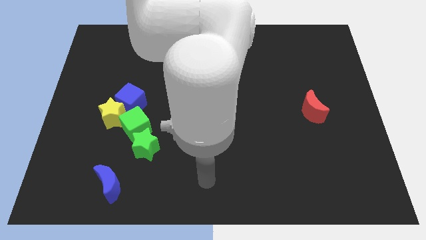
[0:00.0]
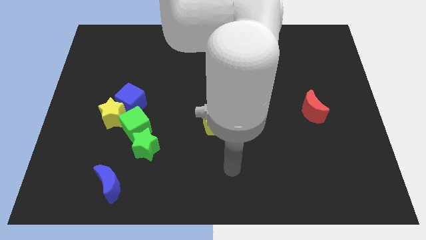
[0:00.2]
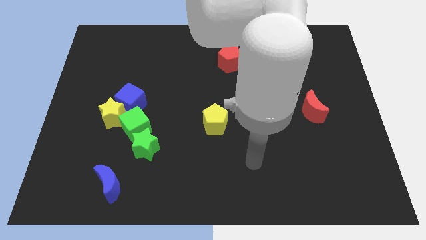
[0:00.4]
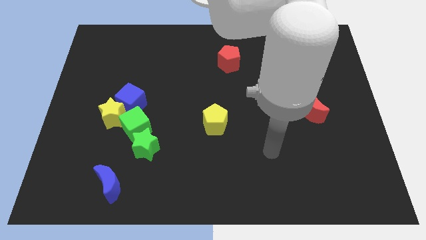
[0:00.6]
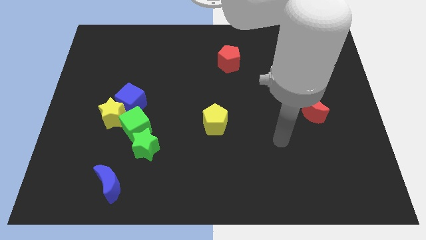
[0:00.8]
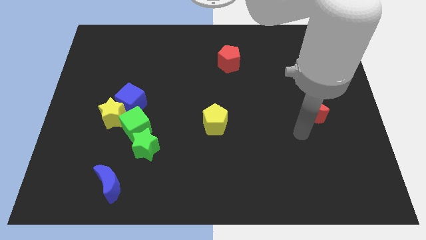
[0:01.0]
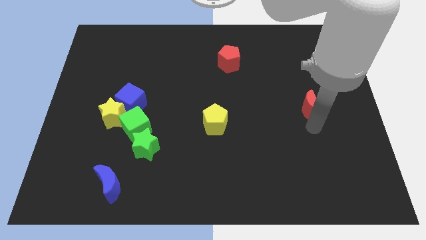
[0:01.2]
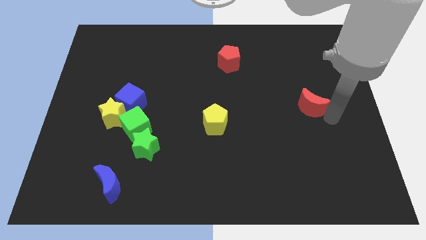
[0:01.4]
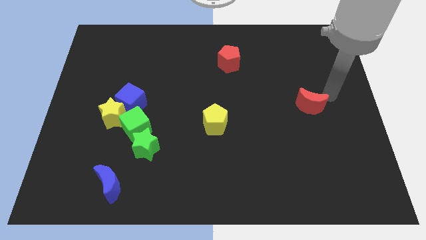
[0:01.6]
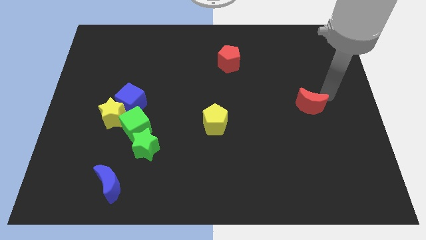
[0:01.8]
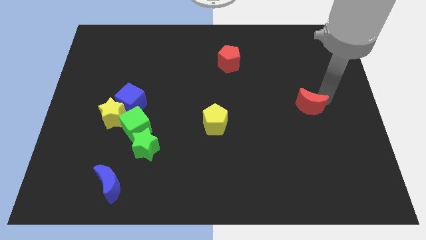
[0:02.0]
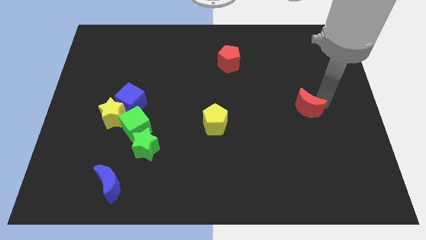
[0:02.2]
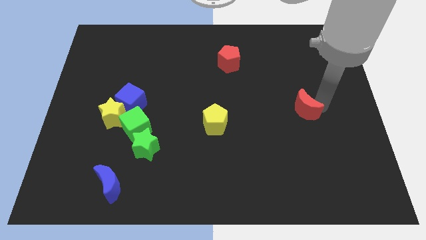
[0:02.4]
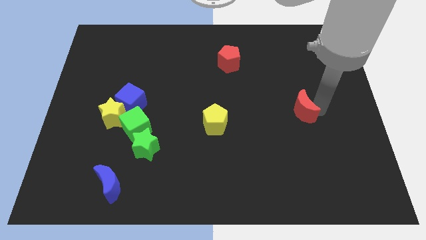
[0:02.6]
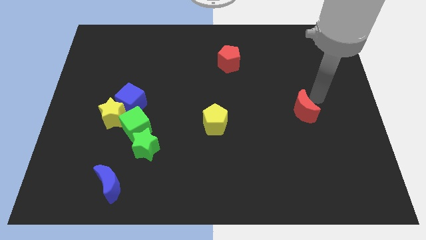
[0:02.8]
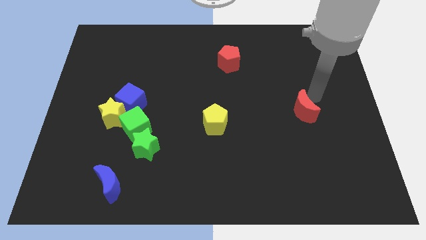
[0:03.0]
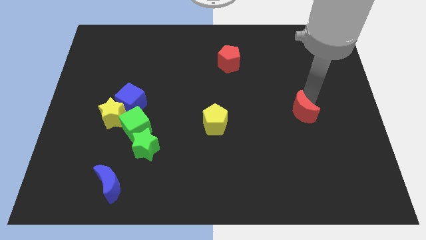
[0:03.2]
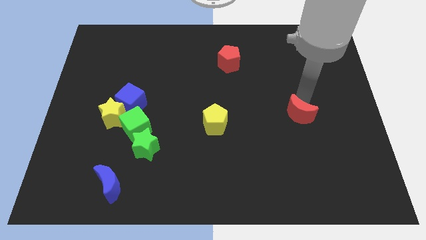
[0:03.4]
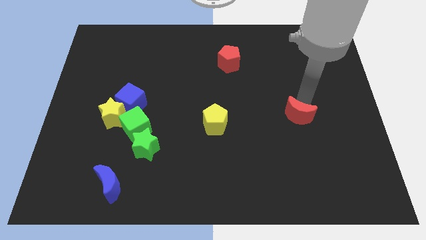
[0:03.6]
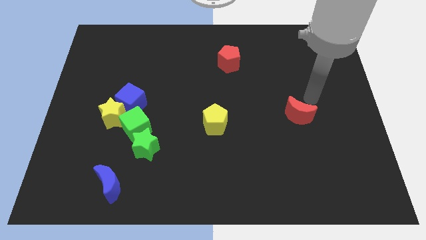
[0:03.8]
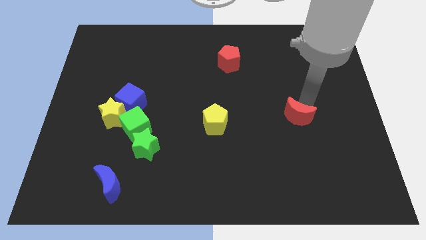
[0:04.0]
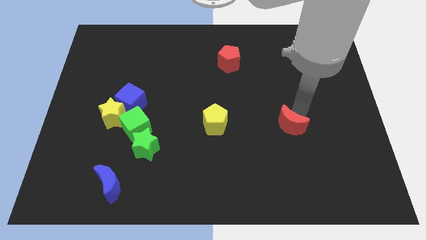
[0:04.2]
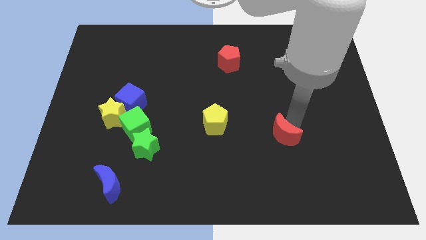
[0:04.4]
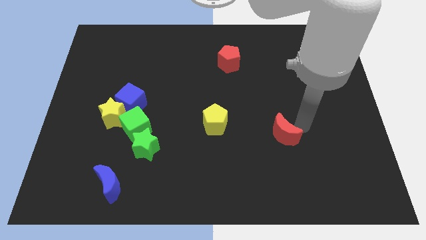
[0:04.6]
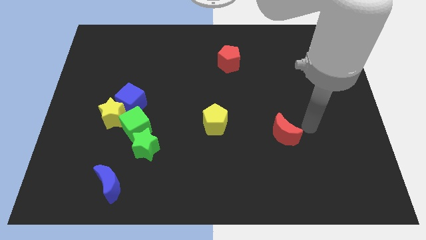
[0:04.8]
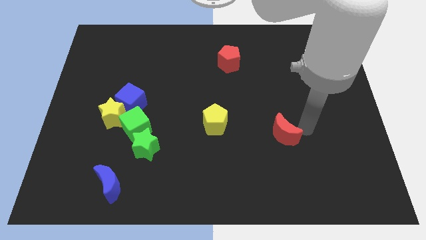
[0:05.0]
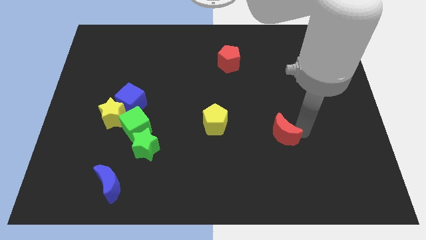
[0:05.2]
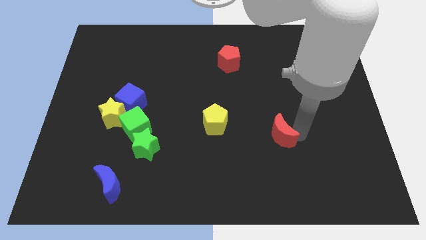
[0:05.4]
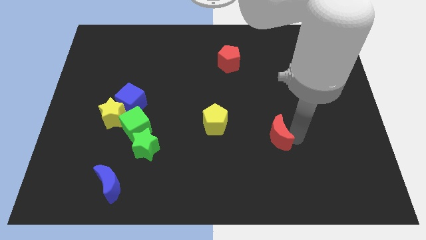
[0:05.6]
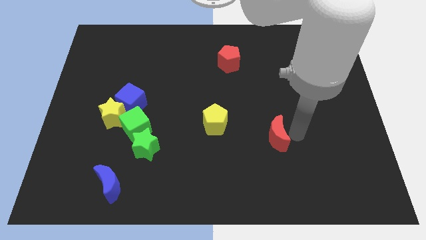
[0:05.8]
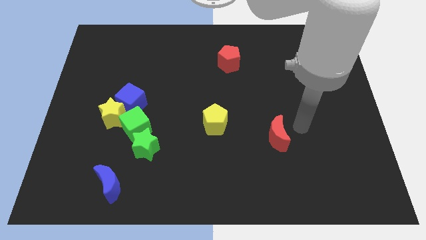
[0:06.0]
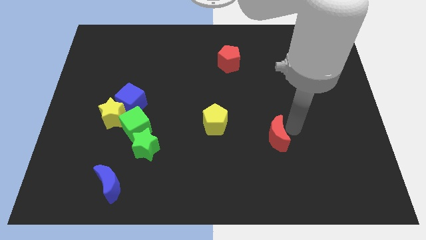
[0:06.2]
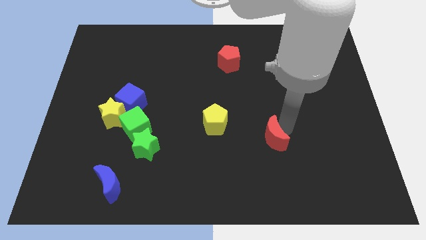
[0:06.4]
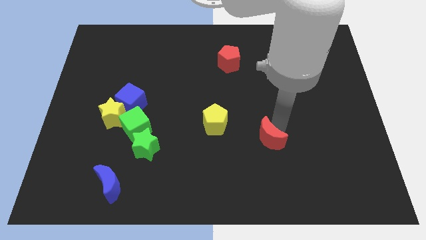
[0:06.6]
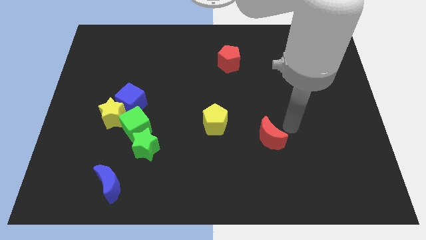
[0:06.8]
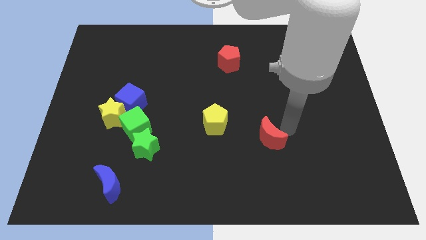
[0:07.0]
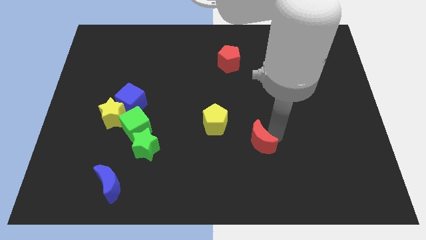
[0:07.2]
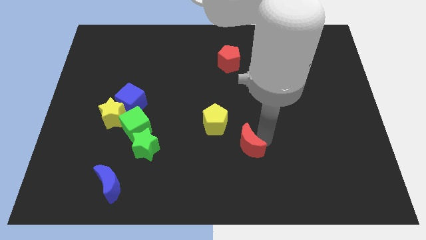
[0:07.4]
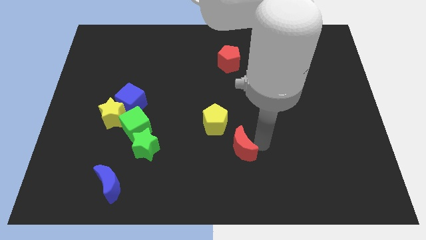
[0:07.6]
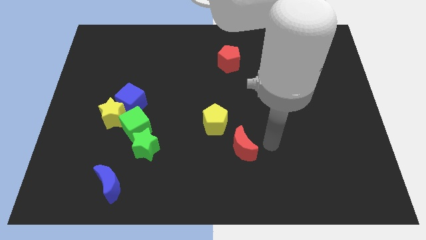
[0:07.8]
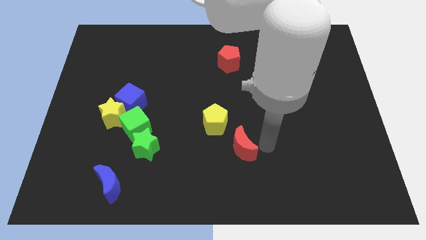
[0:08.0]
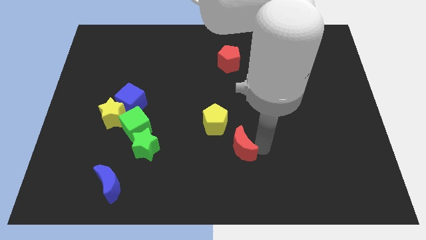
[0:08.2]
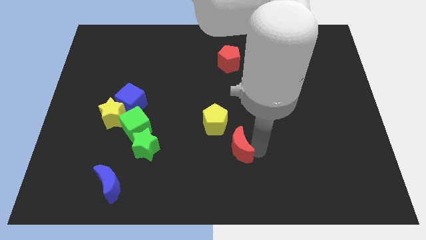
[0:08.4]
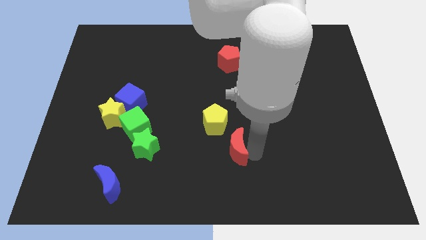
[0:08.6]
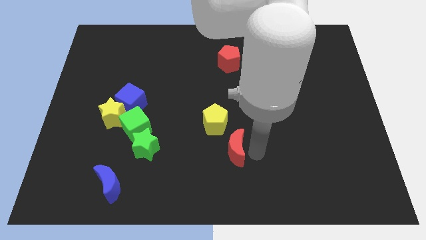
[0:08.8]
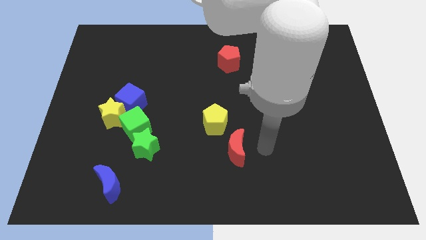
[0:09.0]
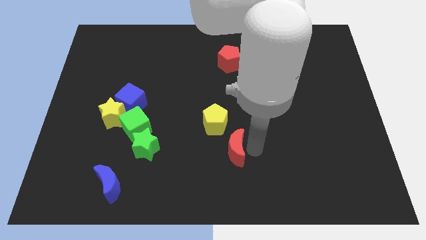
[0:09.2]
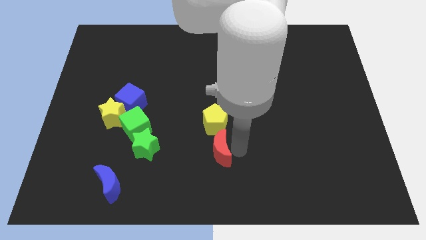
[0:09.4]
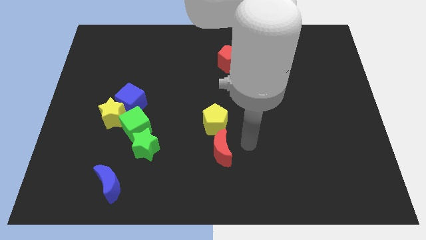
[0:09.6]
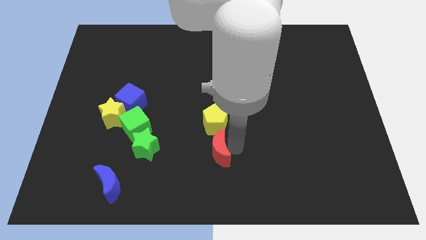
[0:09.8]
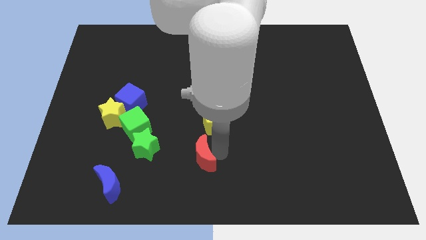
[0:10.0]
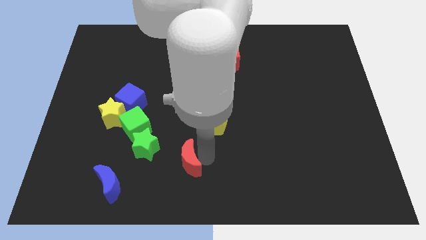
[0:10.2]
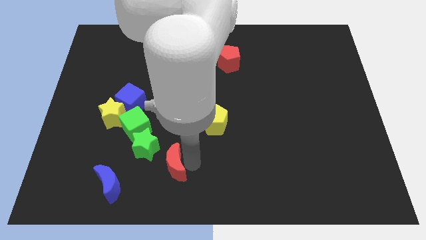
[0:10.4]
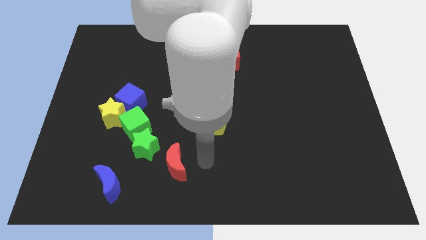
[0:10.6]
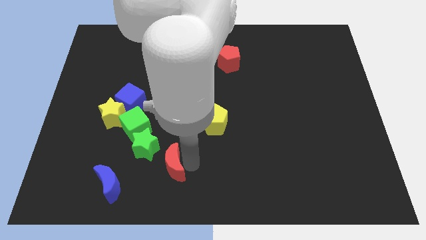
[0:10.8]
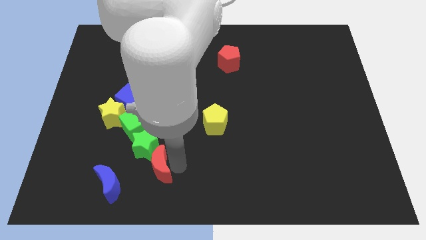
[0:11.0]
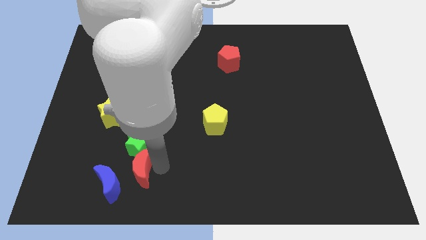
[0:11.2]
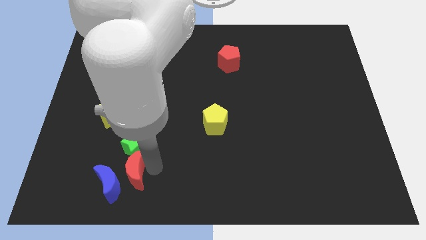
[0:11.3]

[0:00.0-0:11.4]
slide the red moon next to the blue moon

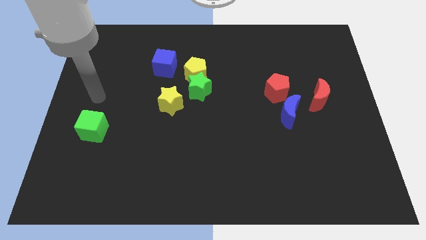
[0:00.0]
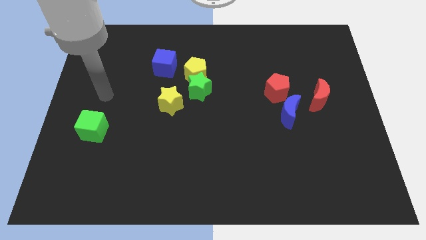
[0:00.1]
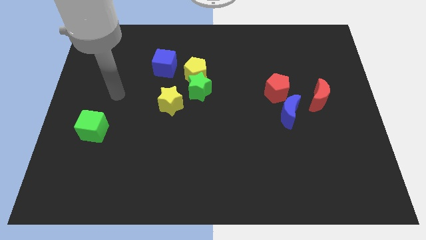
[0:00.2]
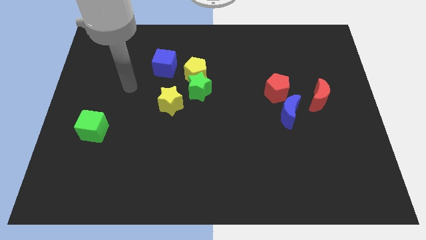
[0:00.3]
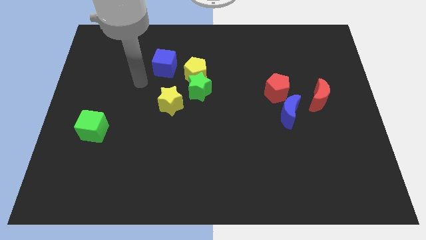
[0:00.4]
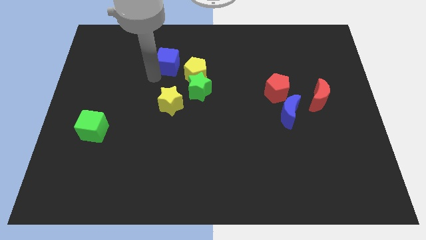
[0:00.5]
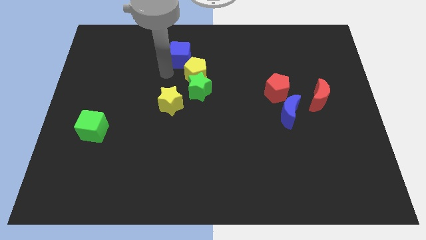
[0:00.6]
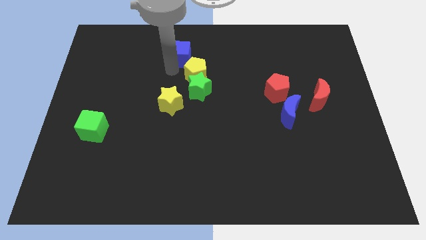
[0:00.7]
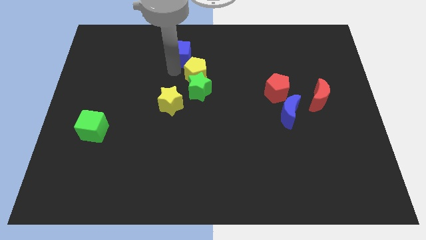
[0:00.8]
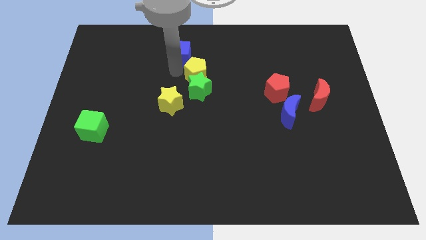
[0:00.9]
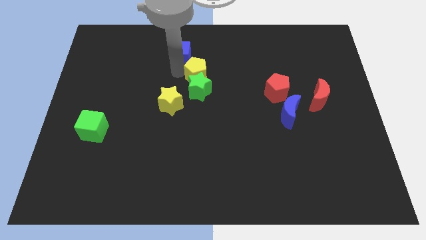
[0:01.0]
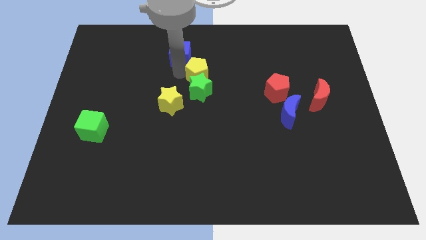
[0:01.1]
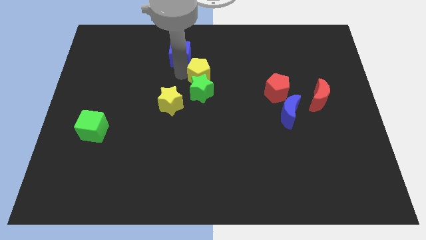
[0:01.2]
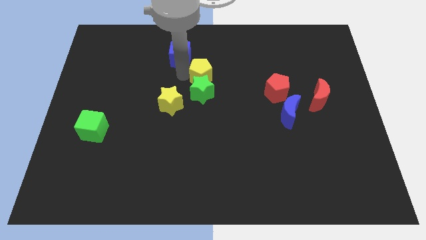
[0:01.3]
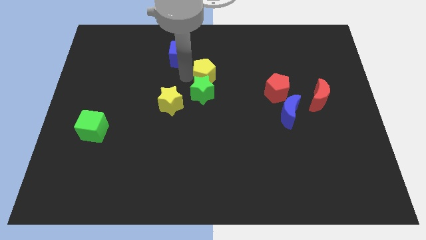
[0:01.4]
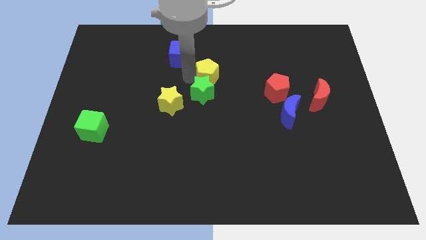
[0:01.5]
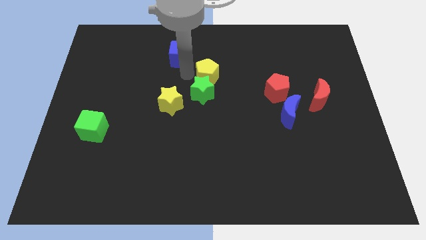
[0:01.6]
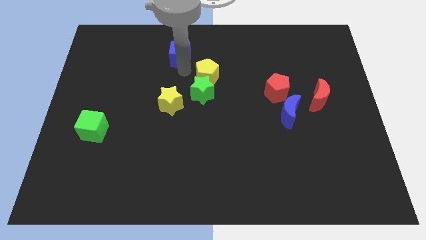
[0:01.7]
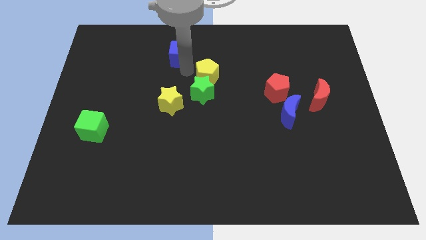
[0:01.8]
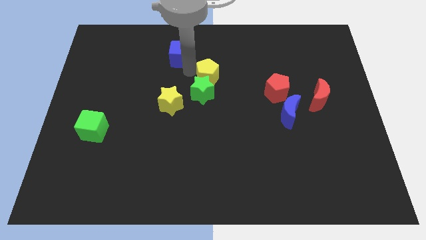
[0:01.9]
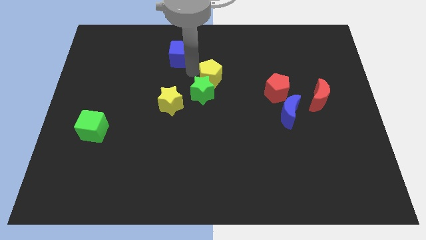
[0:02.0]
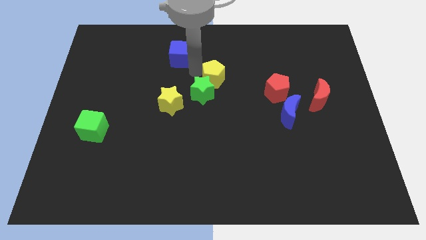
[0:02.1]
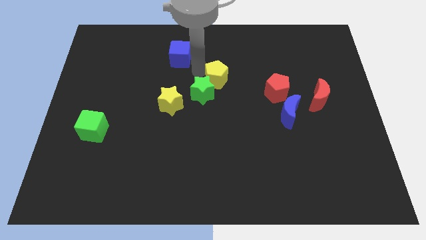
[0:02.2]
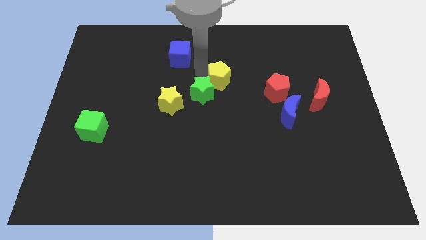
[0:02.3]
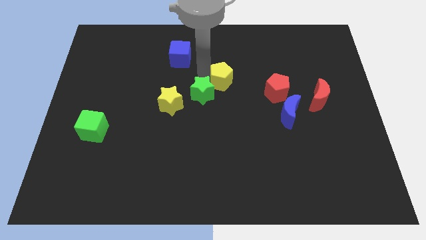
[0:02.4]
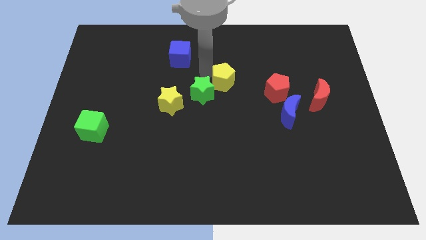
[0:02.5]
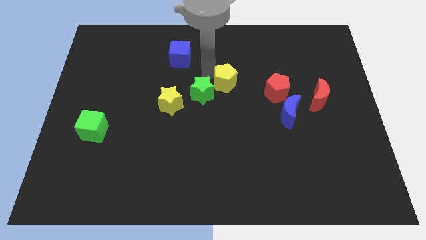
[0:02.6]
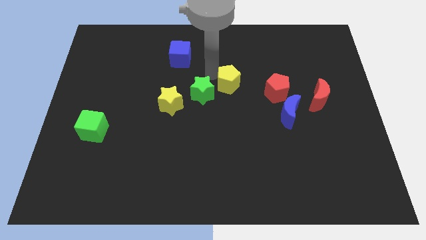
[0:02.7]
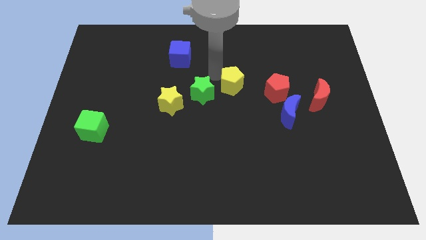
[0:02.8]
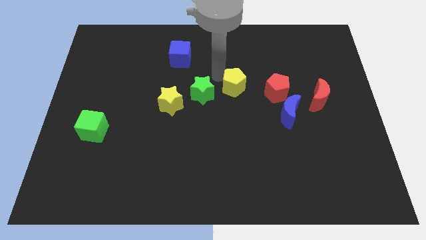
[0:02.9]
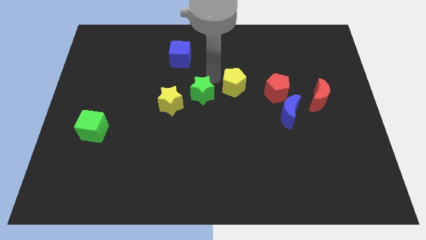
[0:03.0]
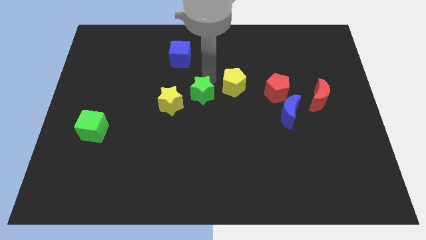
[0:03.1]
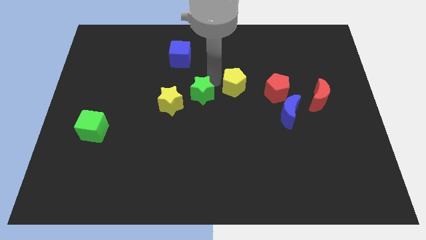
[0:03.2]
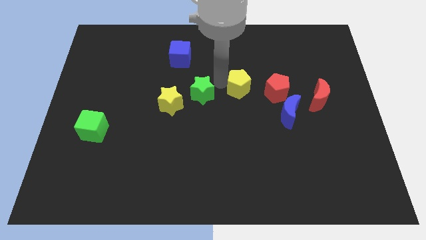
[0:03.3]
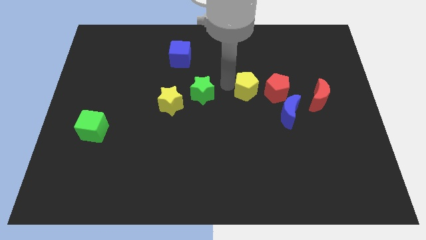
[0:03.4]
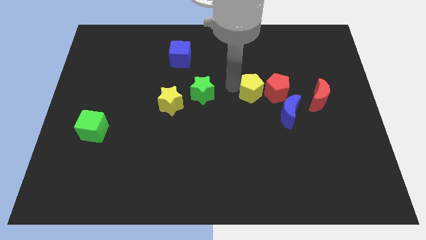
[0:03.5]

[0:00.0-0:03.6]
move the yellow pentagon towards the red pentagon
